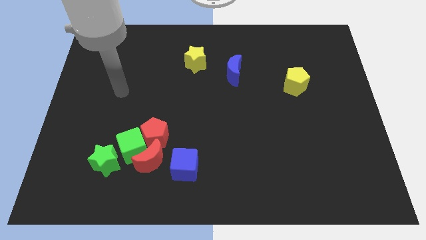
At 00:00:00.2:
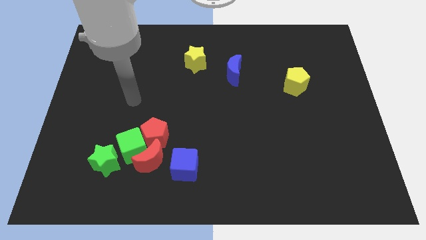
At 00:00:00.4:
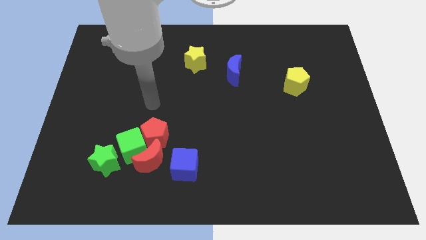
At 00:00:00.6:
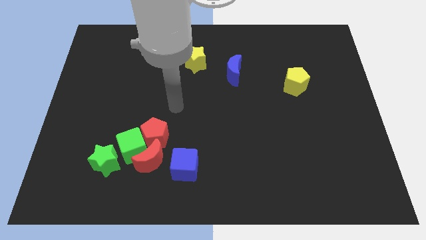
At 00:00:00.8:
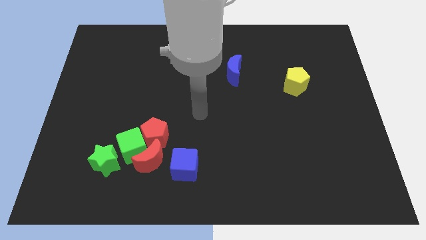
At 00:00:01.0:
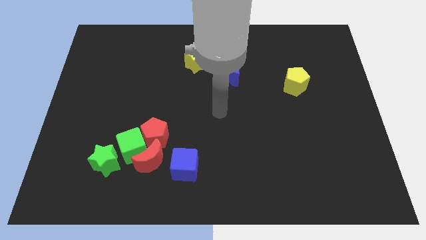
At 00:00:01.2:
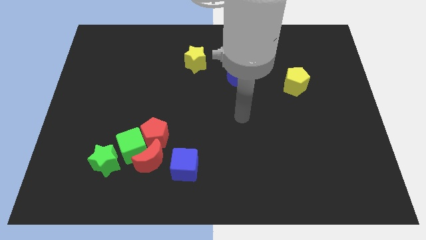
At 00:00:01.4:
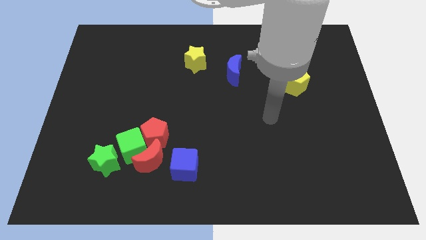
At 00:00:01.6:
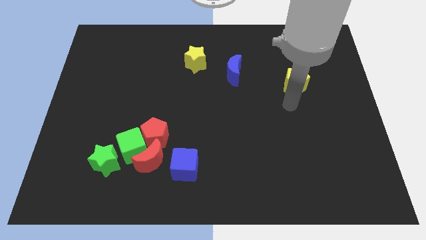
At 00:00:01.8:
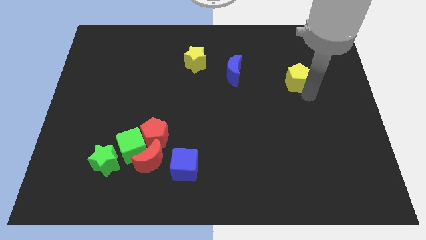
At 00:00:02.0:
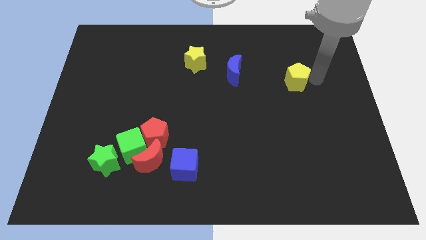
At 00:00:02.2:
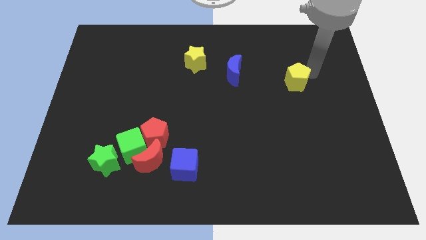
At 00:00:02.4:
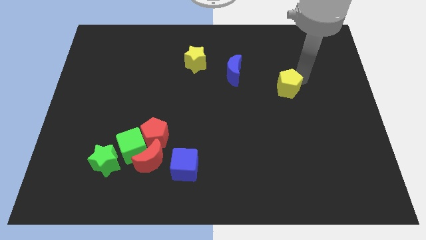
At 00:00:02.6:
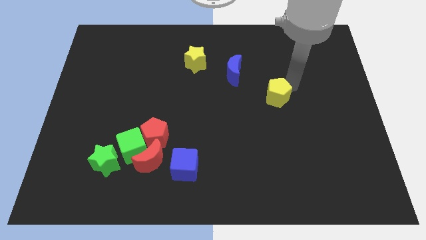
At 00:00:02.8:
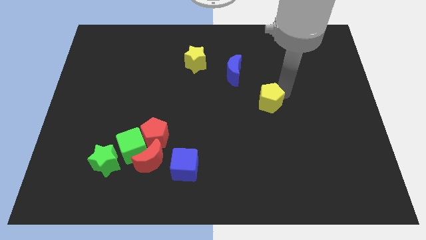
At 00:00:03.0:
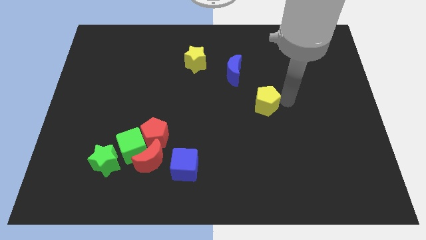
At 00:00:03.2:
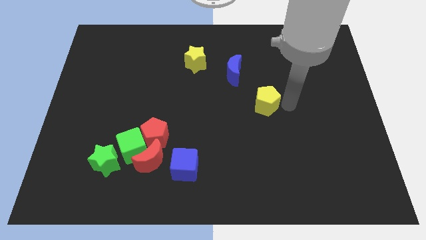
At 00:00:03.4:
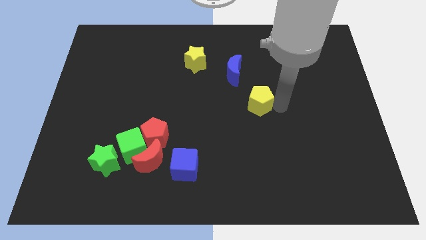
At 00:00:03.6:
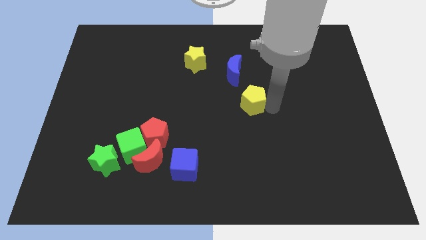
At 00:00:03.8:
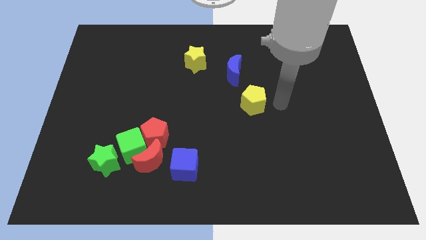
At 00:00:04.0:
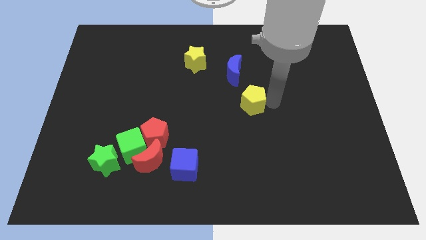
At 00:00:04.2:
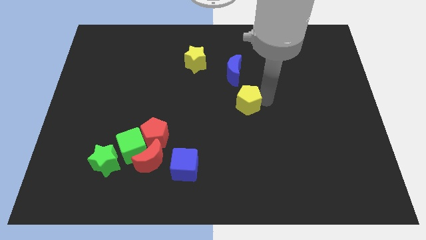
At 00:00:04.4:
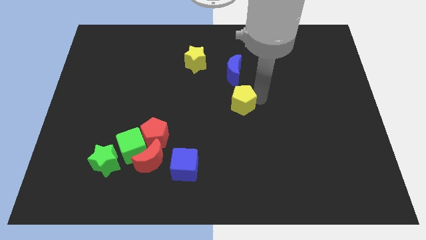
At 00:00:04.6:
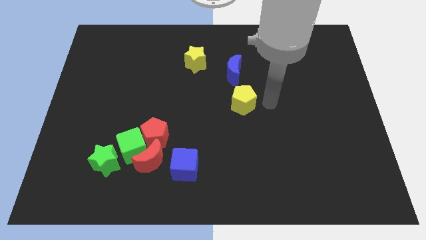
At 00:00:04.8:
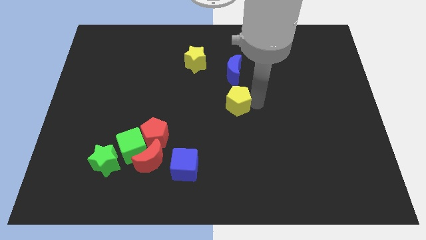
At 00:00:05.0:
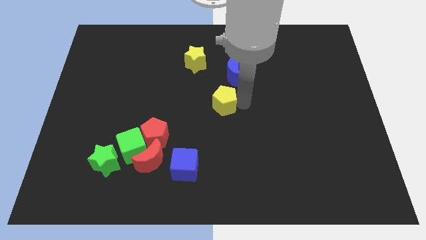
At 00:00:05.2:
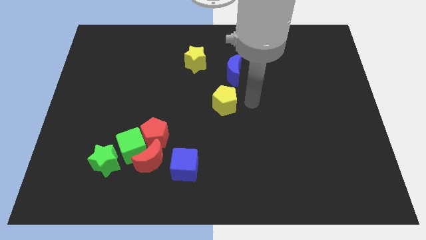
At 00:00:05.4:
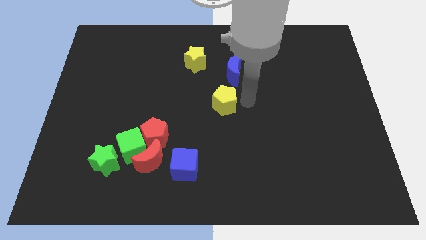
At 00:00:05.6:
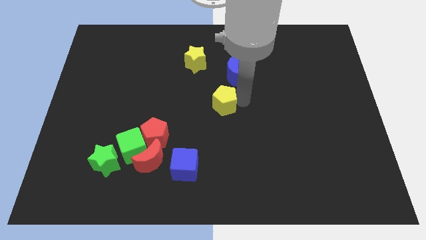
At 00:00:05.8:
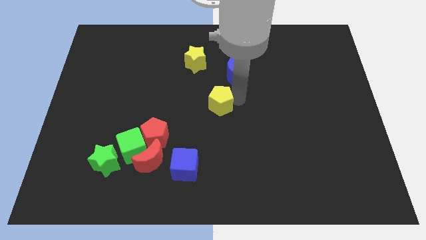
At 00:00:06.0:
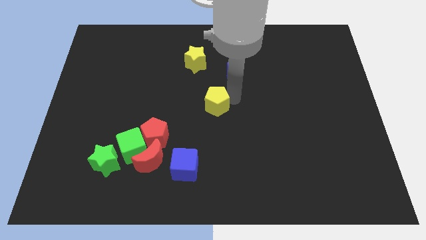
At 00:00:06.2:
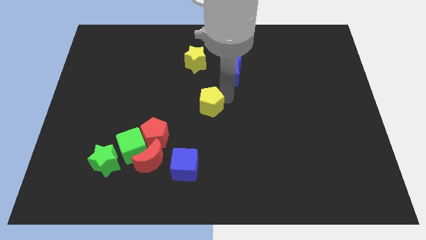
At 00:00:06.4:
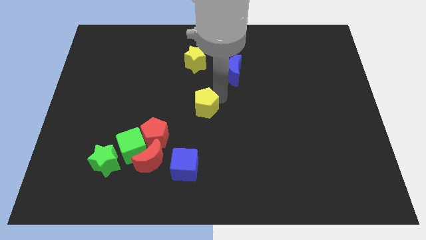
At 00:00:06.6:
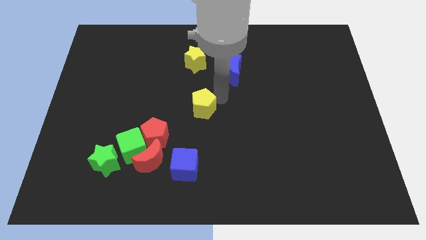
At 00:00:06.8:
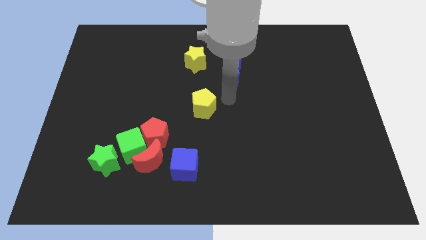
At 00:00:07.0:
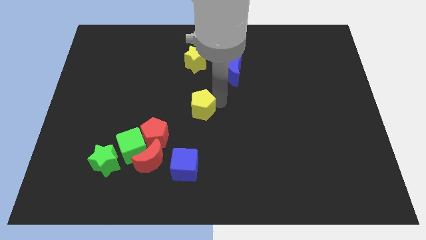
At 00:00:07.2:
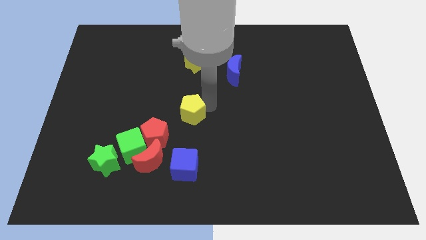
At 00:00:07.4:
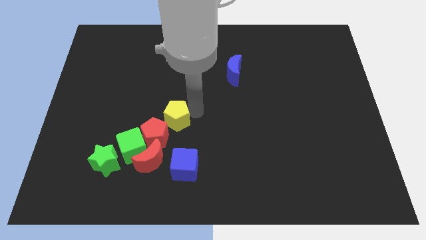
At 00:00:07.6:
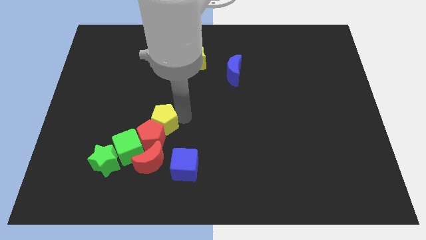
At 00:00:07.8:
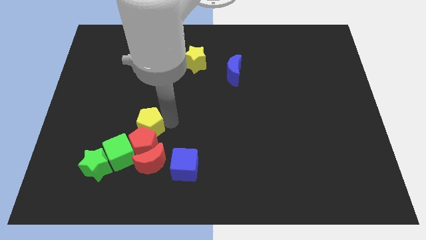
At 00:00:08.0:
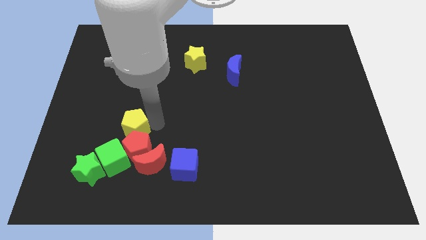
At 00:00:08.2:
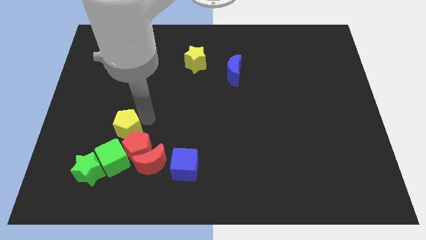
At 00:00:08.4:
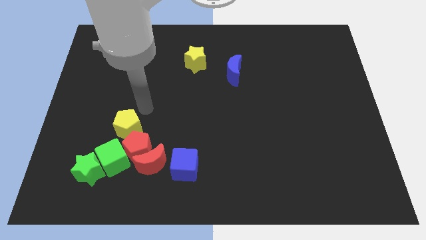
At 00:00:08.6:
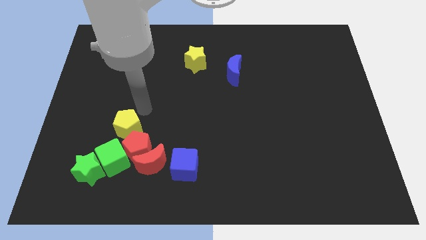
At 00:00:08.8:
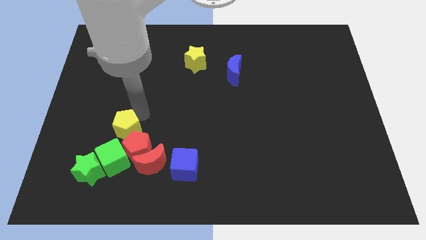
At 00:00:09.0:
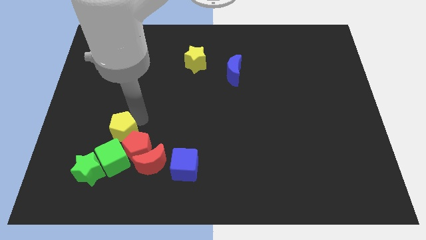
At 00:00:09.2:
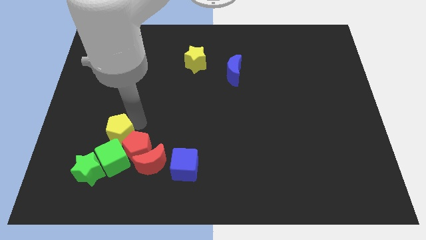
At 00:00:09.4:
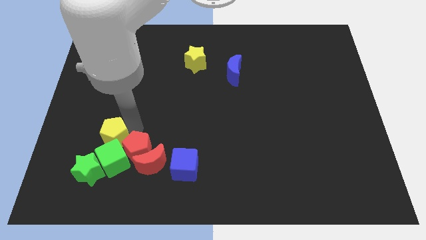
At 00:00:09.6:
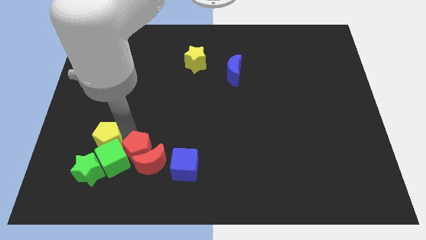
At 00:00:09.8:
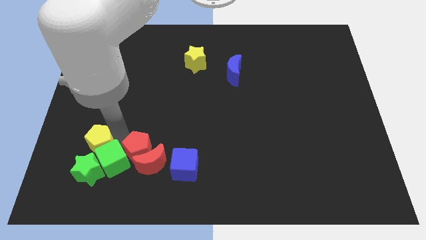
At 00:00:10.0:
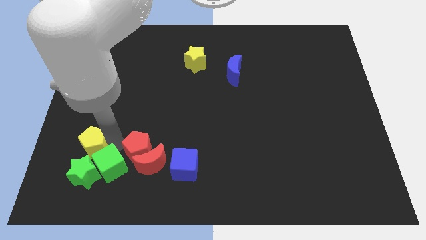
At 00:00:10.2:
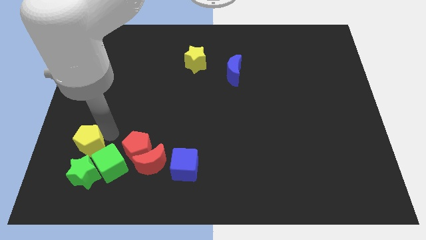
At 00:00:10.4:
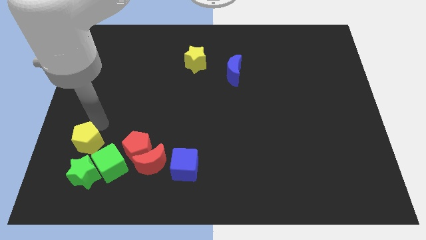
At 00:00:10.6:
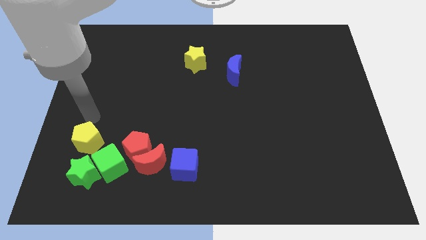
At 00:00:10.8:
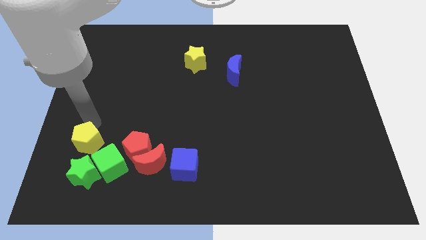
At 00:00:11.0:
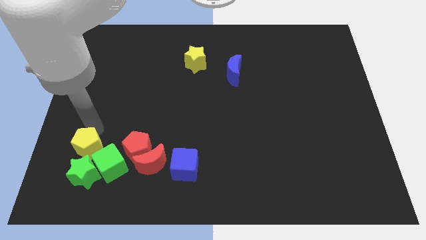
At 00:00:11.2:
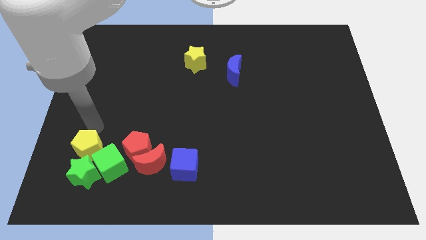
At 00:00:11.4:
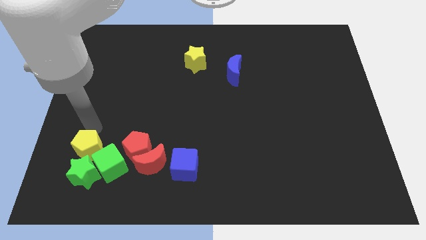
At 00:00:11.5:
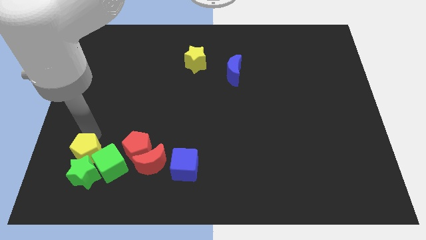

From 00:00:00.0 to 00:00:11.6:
push the yellow pentagon to the green star
